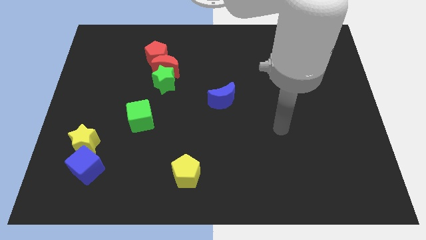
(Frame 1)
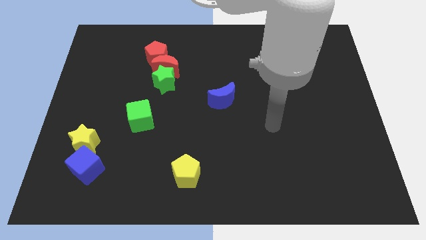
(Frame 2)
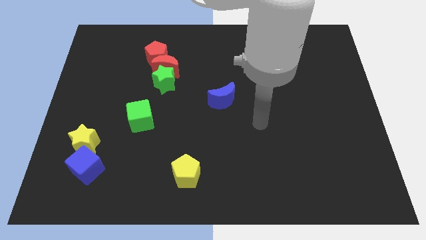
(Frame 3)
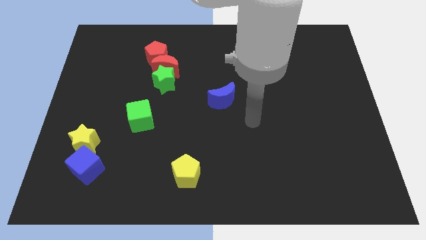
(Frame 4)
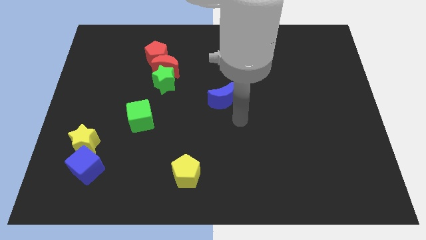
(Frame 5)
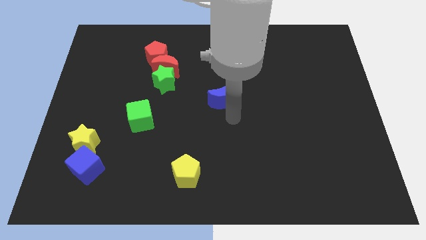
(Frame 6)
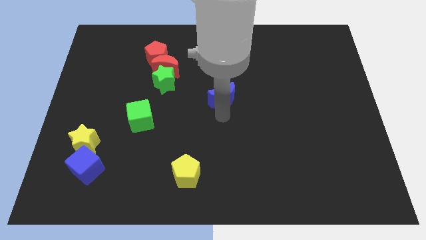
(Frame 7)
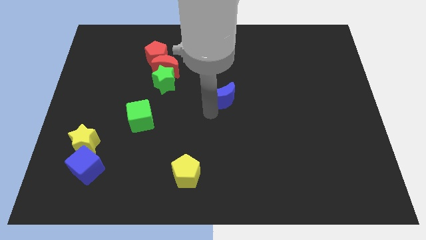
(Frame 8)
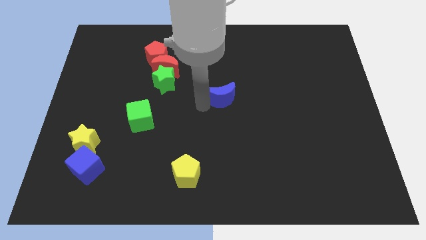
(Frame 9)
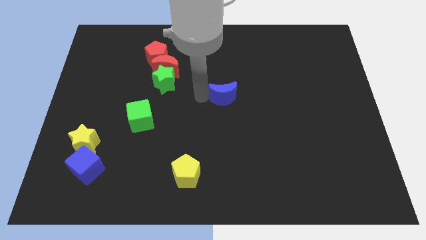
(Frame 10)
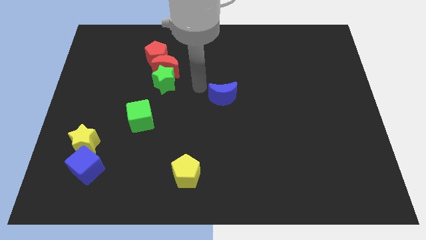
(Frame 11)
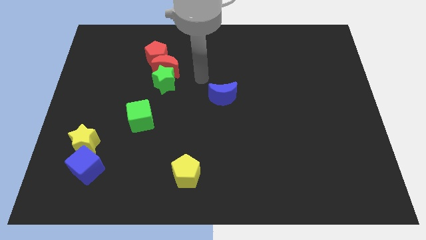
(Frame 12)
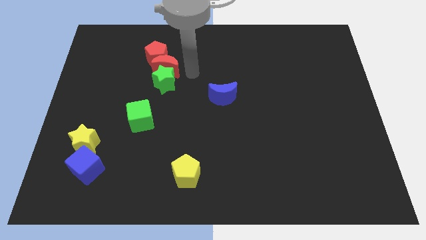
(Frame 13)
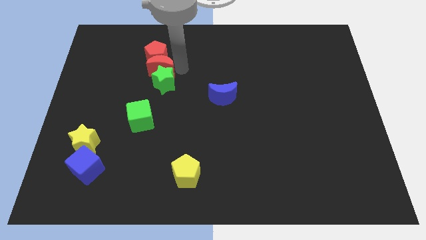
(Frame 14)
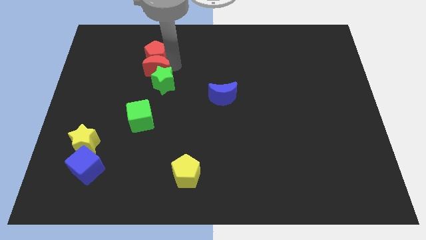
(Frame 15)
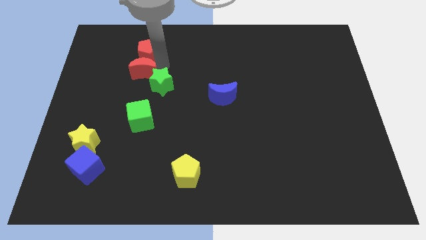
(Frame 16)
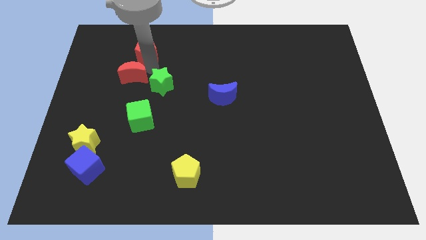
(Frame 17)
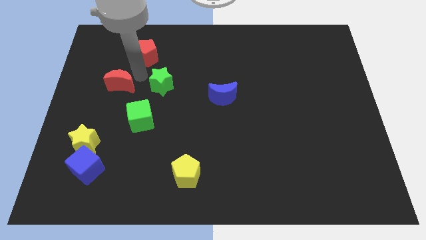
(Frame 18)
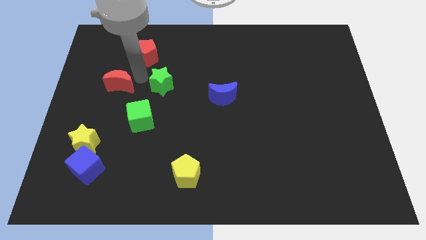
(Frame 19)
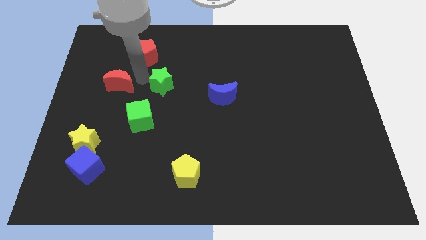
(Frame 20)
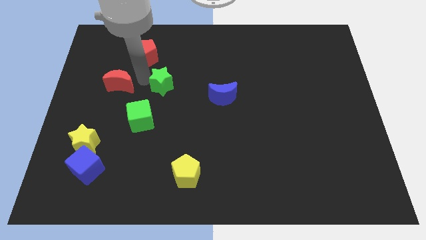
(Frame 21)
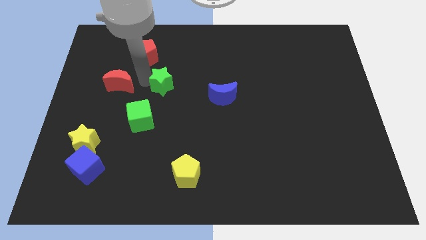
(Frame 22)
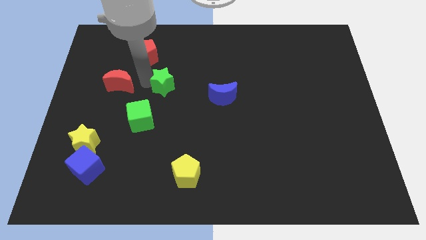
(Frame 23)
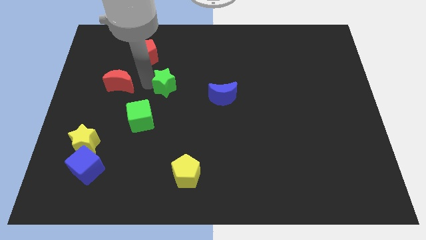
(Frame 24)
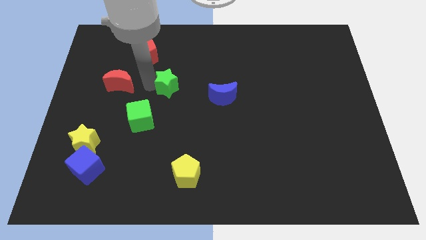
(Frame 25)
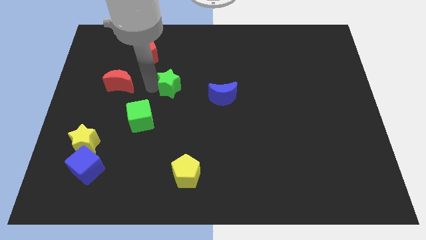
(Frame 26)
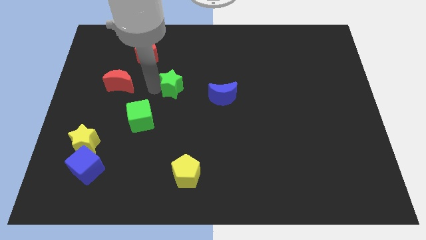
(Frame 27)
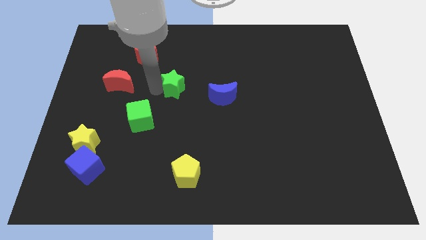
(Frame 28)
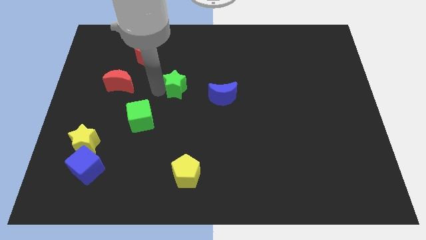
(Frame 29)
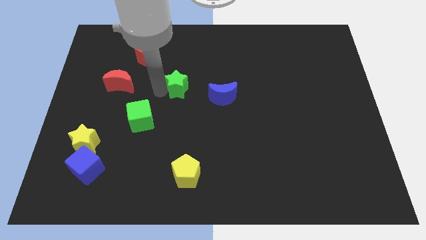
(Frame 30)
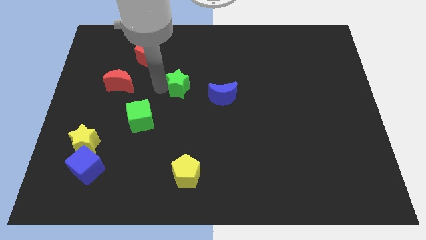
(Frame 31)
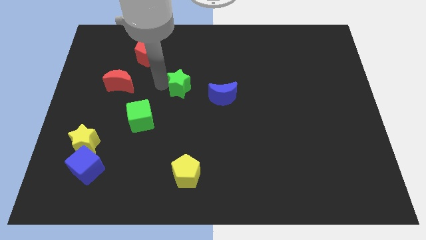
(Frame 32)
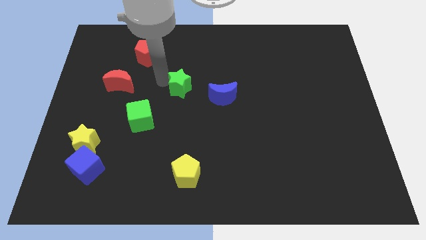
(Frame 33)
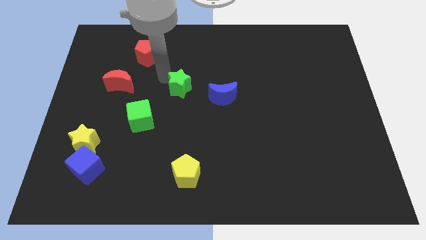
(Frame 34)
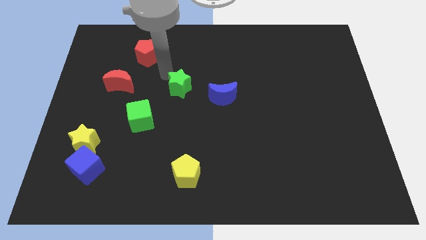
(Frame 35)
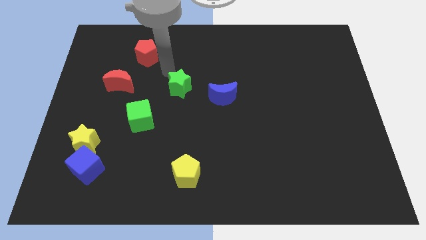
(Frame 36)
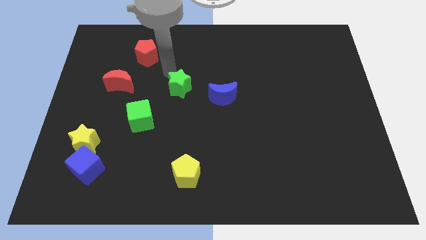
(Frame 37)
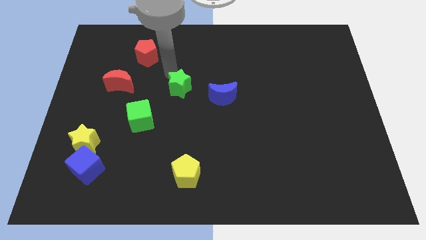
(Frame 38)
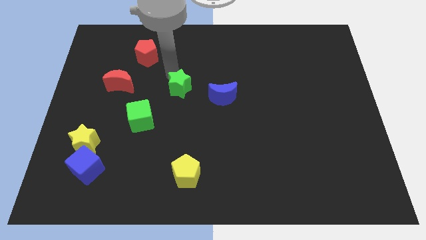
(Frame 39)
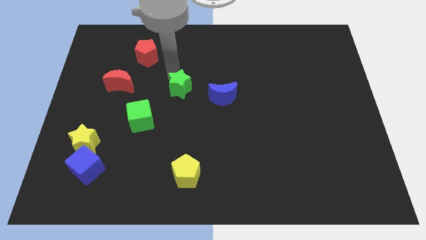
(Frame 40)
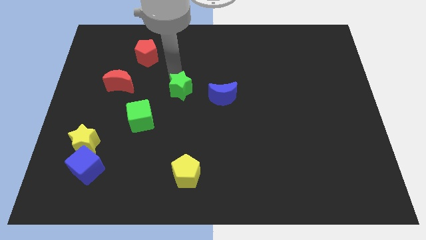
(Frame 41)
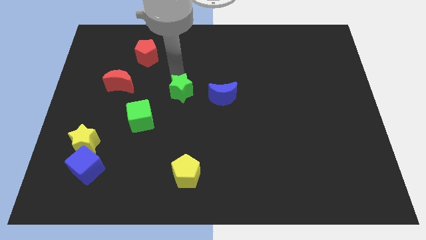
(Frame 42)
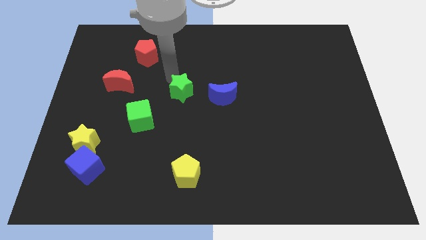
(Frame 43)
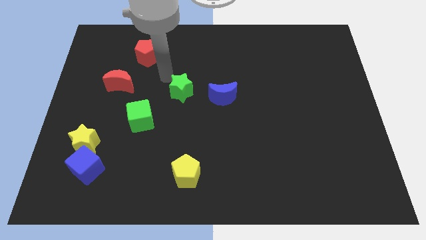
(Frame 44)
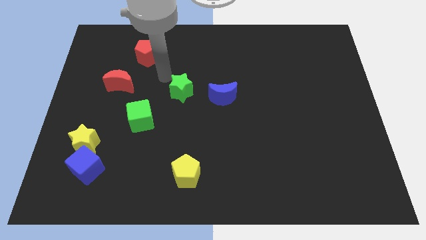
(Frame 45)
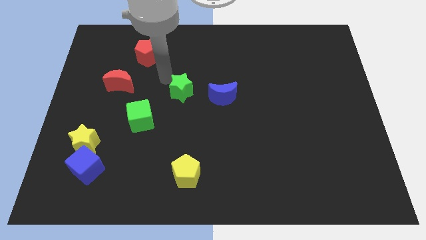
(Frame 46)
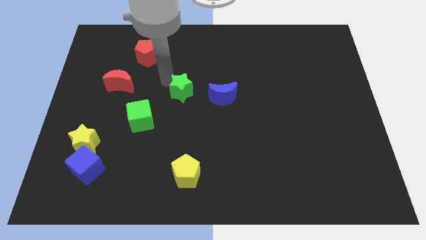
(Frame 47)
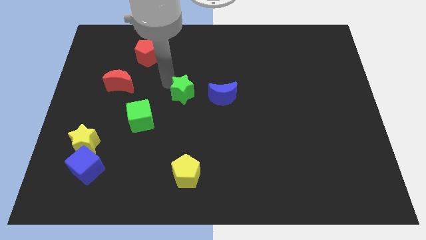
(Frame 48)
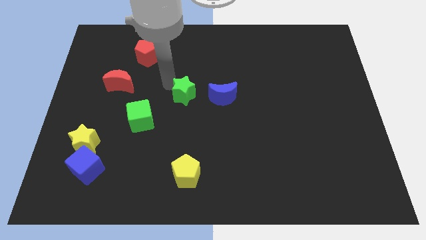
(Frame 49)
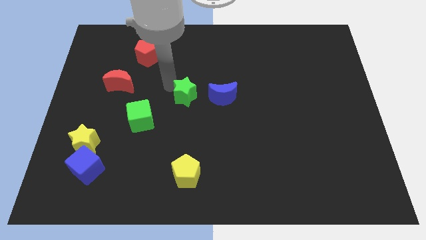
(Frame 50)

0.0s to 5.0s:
slightly slide the green star diagonally down and to the right

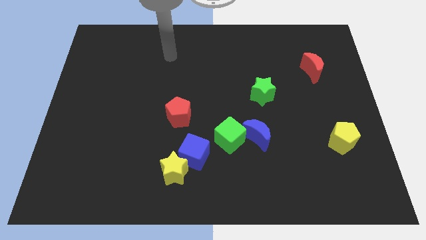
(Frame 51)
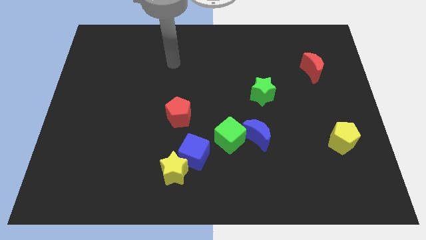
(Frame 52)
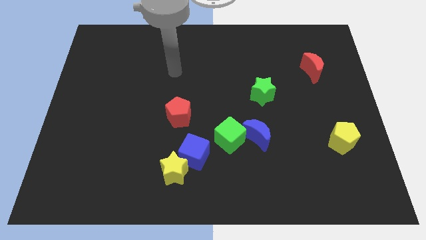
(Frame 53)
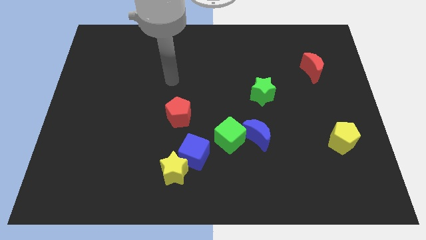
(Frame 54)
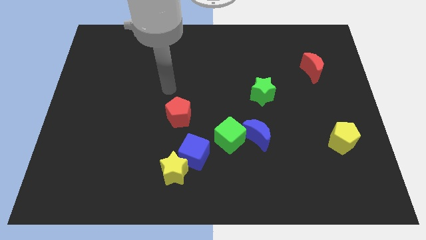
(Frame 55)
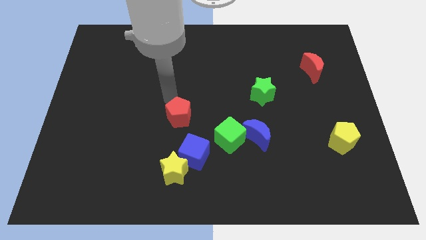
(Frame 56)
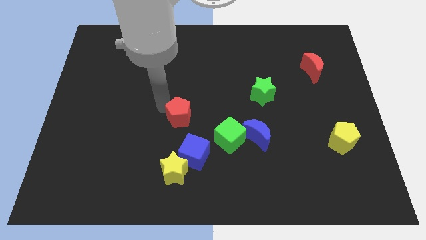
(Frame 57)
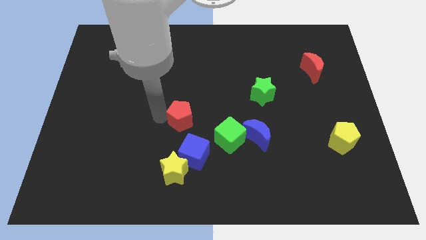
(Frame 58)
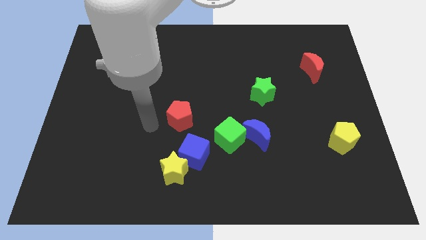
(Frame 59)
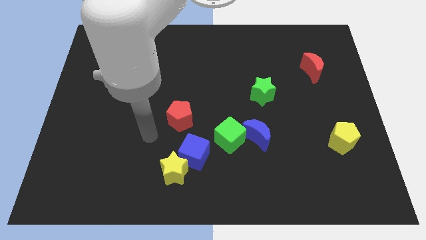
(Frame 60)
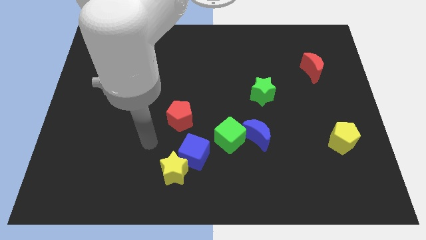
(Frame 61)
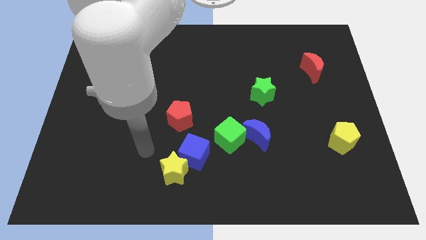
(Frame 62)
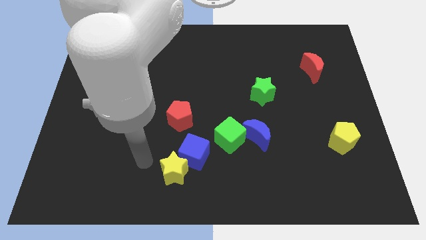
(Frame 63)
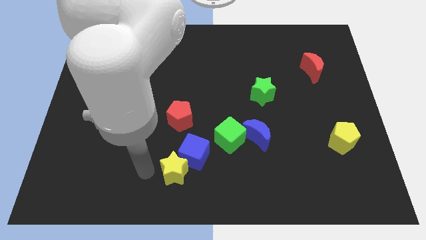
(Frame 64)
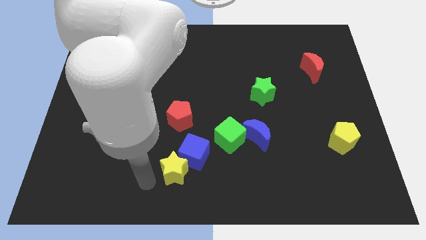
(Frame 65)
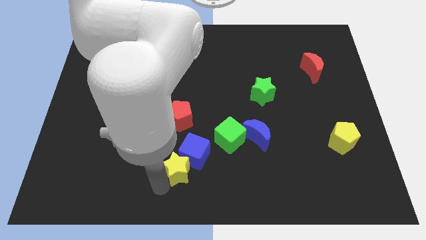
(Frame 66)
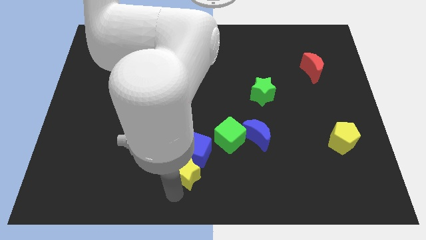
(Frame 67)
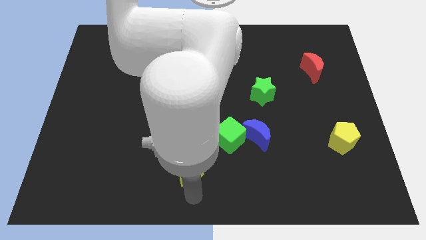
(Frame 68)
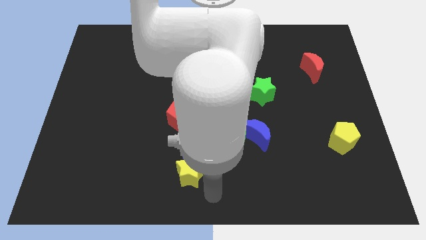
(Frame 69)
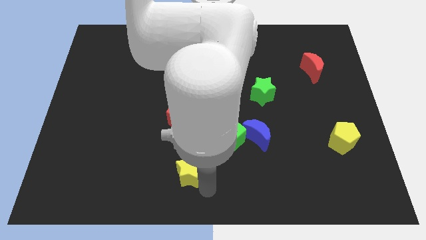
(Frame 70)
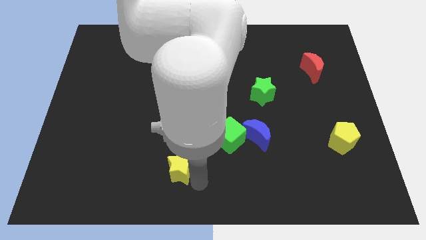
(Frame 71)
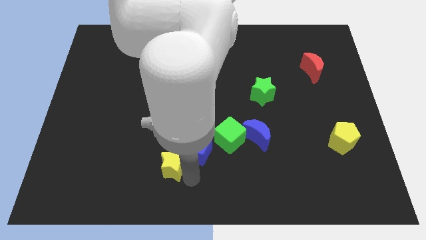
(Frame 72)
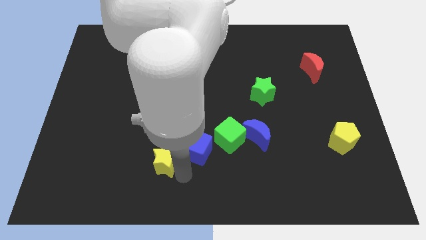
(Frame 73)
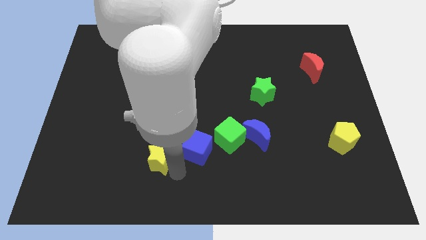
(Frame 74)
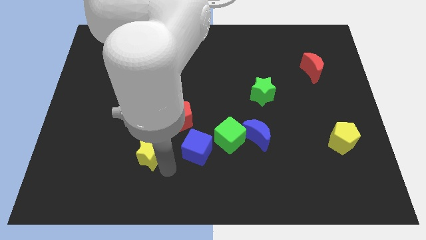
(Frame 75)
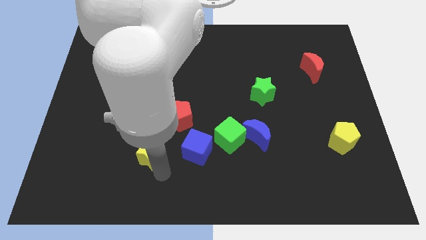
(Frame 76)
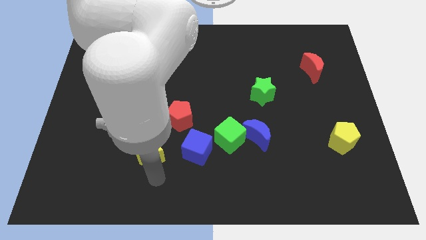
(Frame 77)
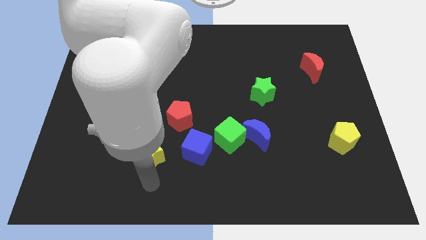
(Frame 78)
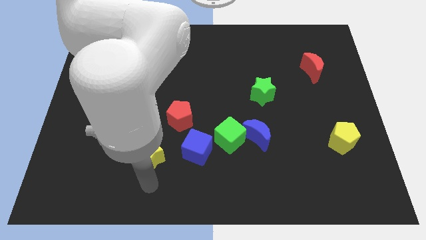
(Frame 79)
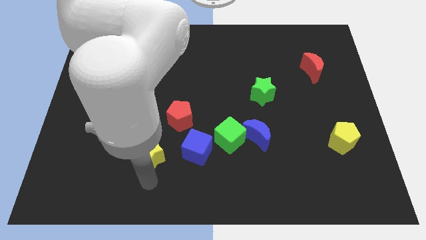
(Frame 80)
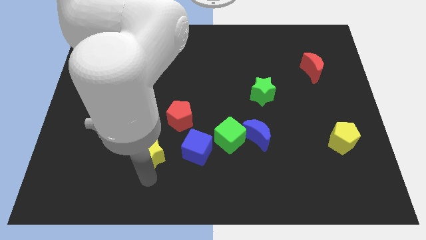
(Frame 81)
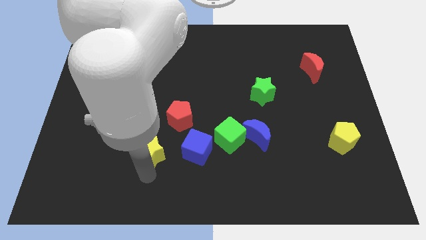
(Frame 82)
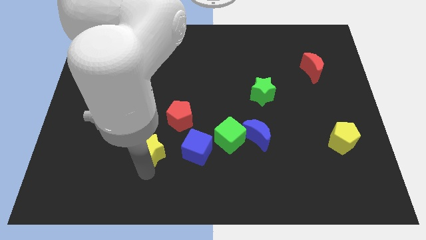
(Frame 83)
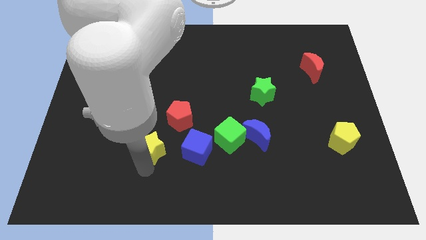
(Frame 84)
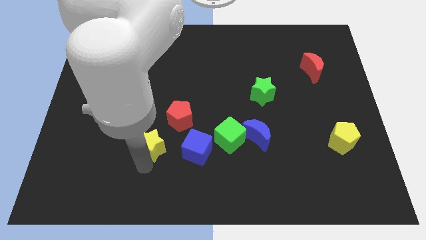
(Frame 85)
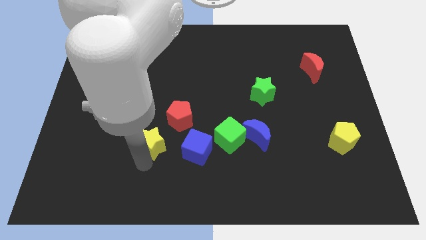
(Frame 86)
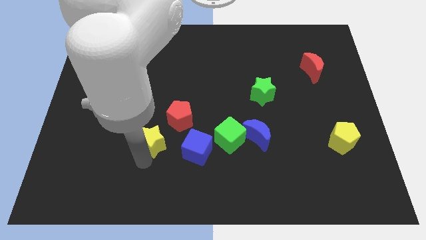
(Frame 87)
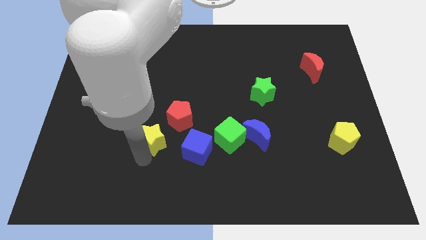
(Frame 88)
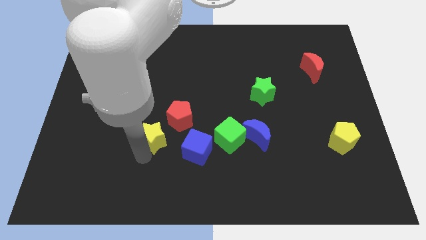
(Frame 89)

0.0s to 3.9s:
slightly push the yellow star upwards
